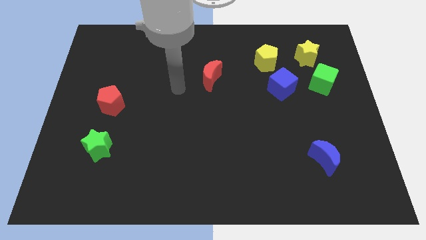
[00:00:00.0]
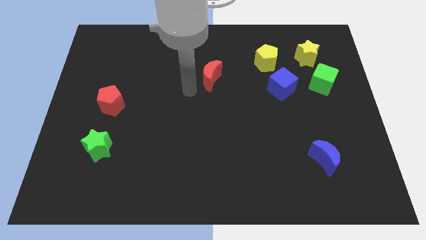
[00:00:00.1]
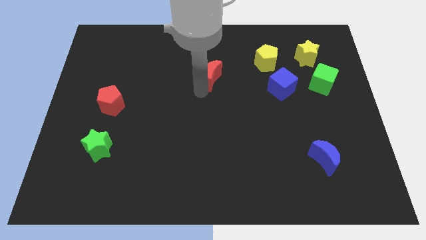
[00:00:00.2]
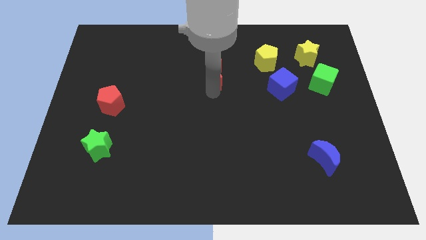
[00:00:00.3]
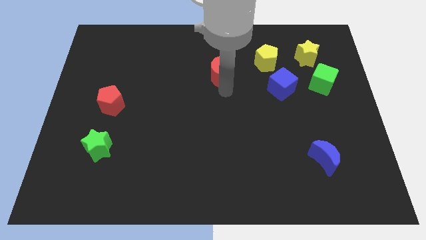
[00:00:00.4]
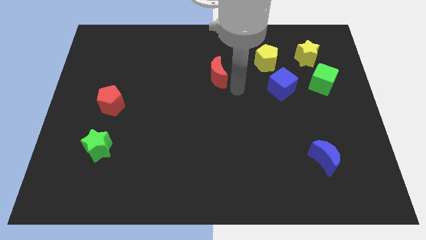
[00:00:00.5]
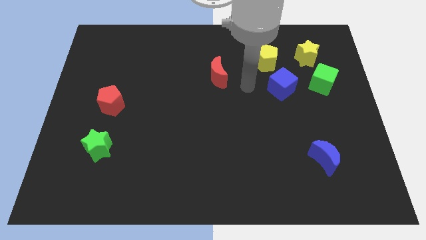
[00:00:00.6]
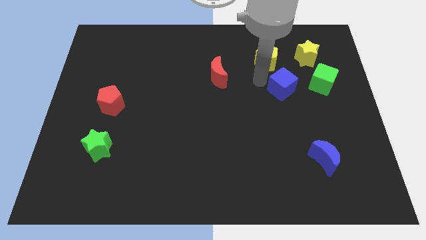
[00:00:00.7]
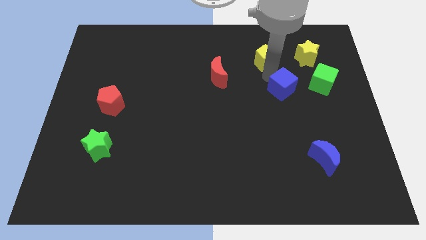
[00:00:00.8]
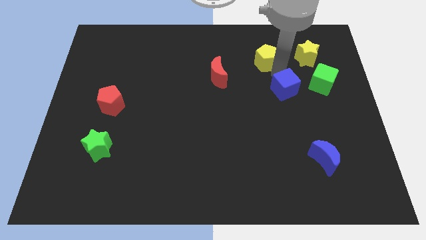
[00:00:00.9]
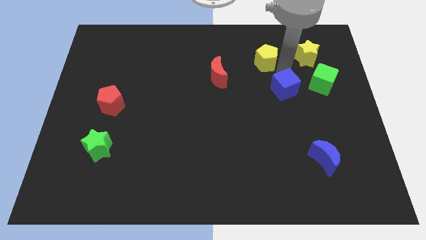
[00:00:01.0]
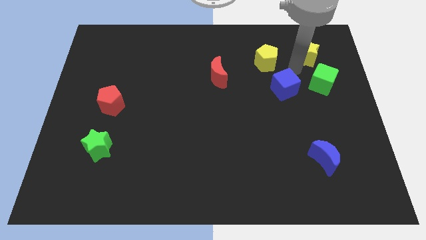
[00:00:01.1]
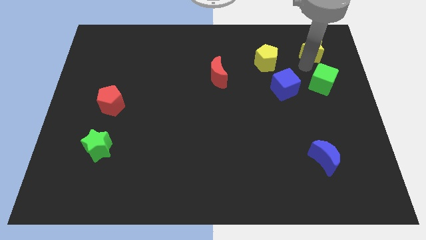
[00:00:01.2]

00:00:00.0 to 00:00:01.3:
move the green cube away from the yellow star

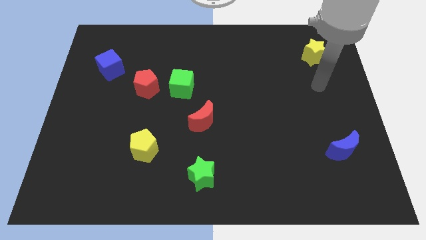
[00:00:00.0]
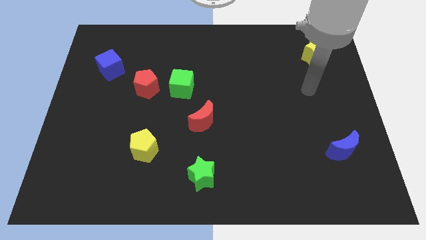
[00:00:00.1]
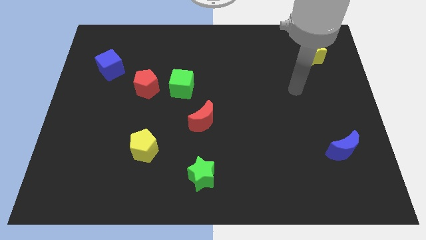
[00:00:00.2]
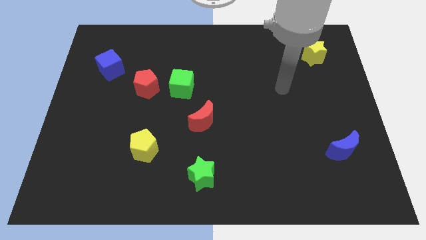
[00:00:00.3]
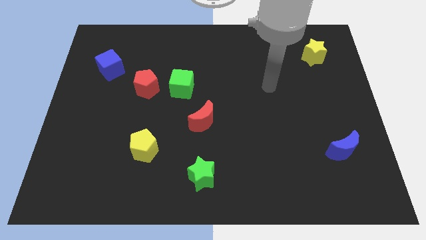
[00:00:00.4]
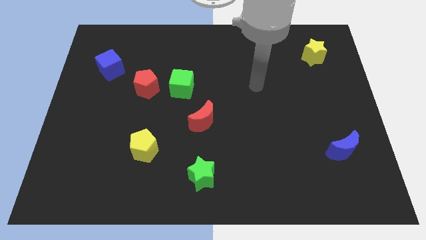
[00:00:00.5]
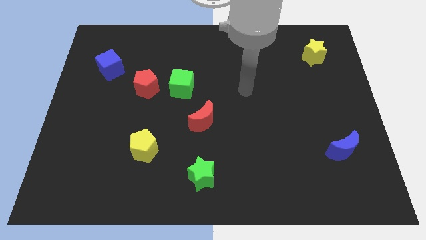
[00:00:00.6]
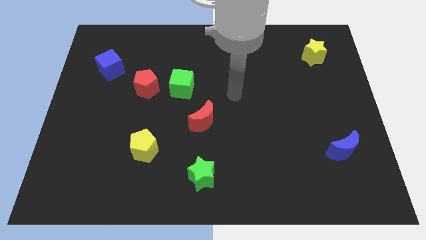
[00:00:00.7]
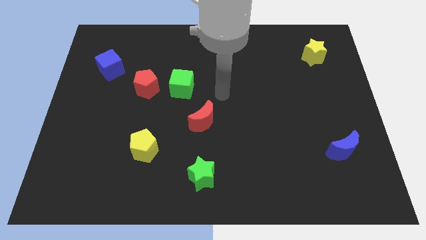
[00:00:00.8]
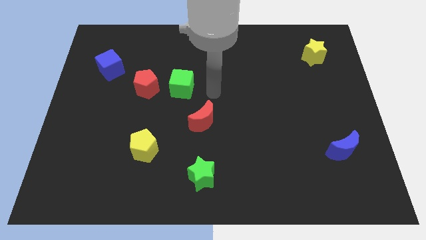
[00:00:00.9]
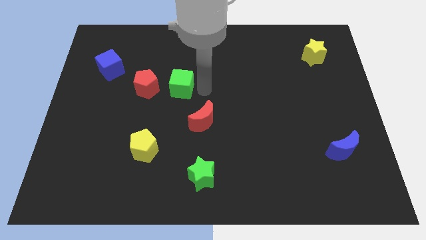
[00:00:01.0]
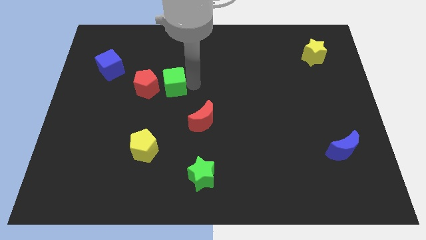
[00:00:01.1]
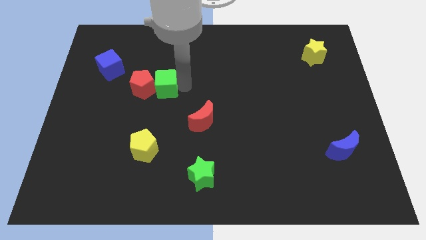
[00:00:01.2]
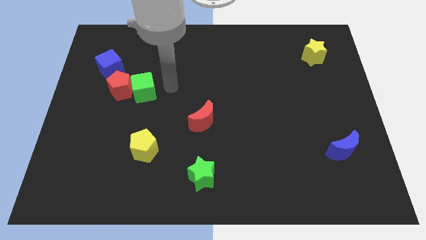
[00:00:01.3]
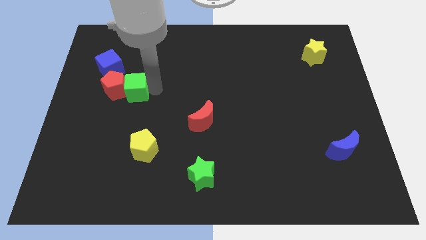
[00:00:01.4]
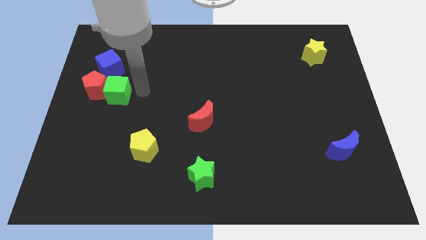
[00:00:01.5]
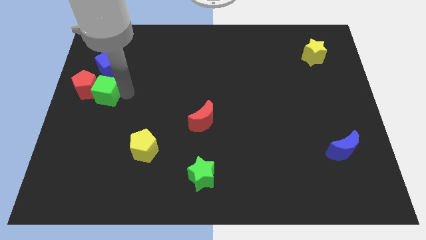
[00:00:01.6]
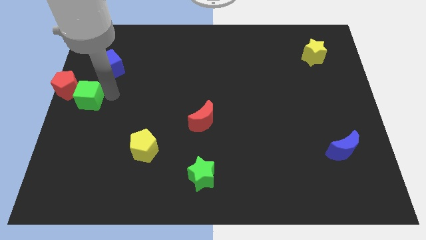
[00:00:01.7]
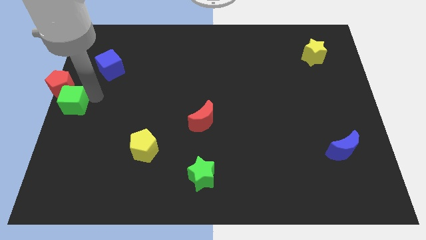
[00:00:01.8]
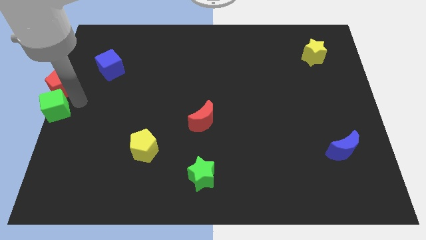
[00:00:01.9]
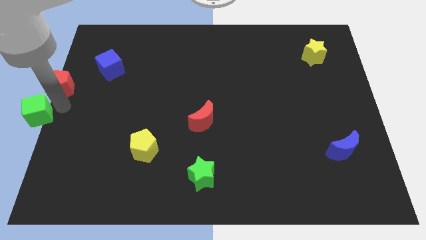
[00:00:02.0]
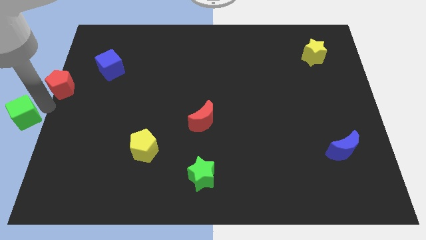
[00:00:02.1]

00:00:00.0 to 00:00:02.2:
move the red pentagon away from the green cube

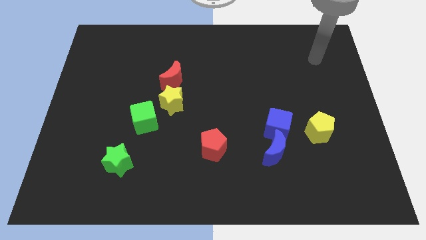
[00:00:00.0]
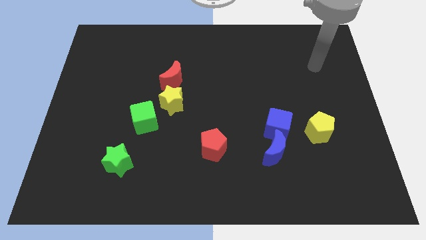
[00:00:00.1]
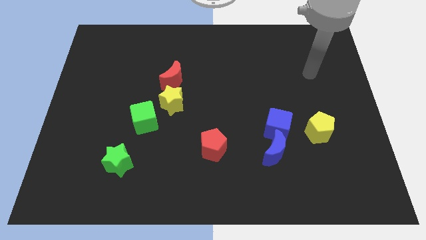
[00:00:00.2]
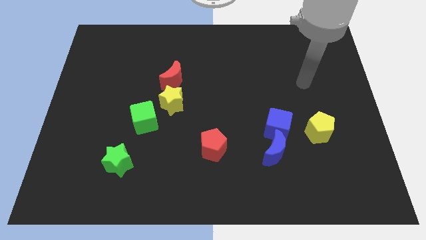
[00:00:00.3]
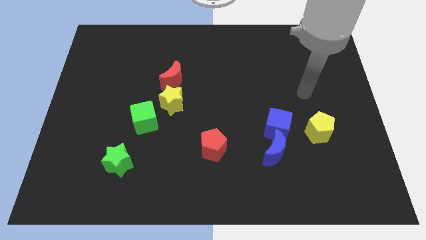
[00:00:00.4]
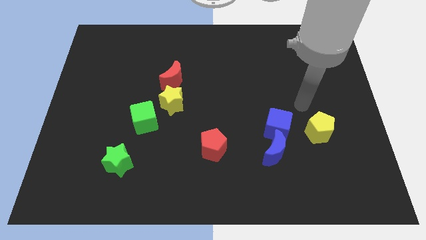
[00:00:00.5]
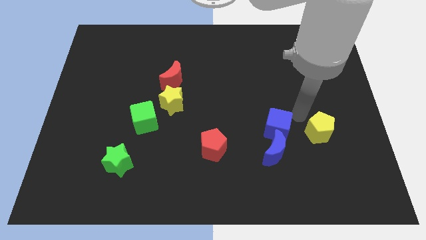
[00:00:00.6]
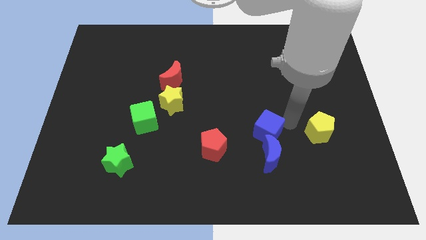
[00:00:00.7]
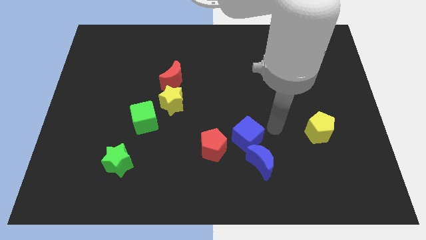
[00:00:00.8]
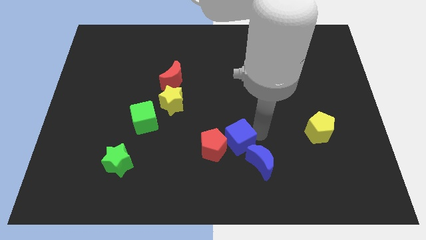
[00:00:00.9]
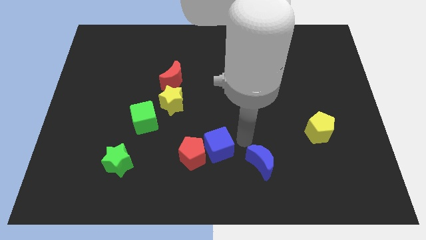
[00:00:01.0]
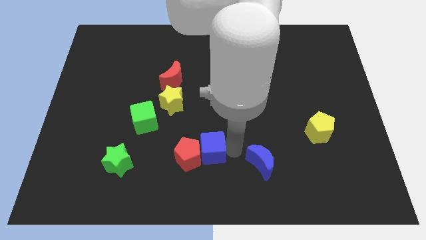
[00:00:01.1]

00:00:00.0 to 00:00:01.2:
move the blue moon away from the blue cube

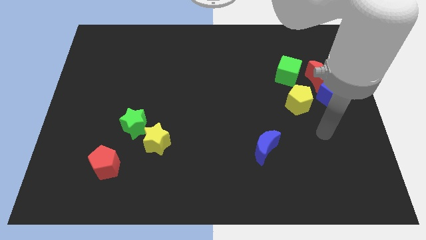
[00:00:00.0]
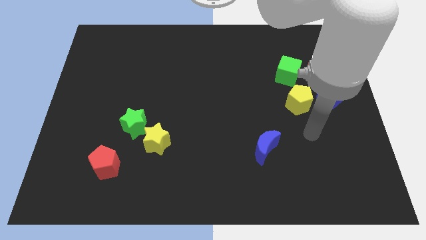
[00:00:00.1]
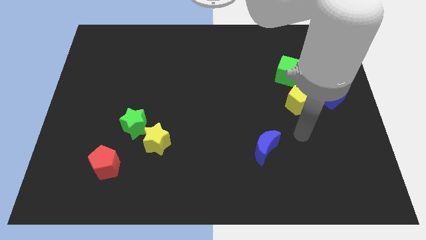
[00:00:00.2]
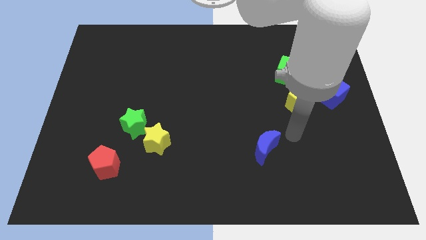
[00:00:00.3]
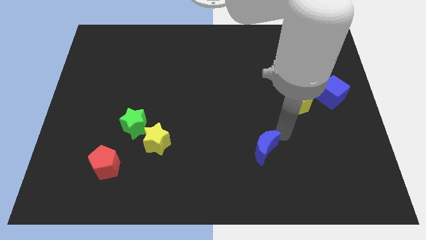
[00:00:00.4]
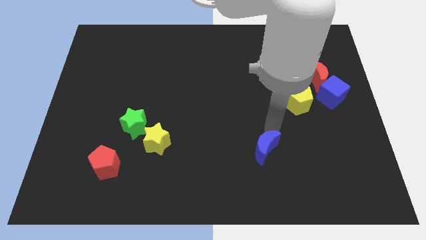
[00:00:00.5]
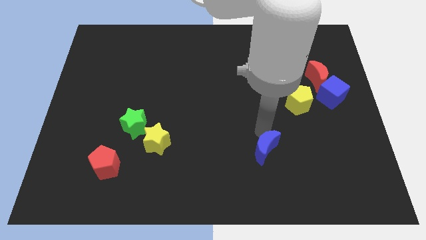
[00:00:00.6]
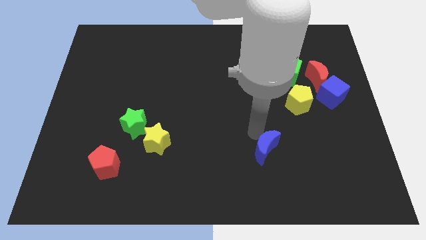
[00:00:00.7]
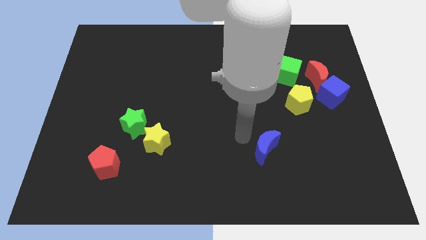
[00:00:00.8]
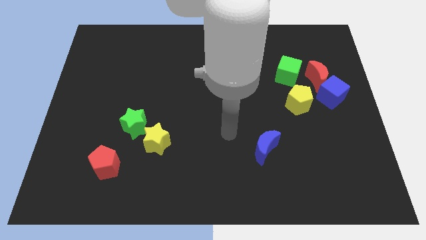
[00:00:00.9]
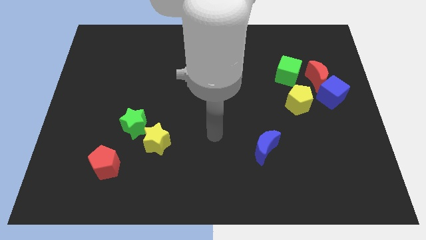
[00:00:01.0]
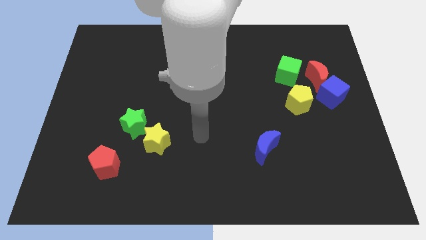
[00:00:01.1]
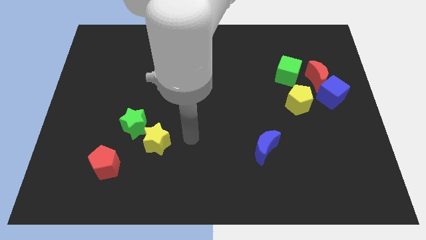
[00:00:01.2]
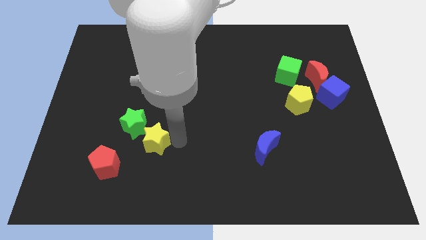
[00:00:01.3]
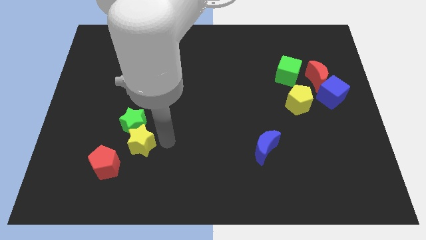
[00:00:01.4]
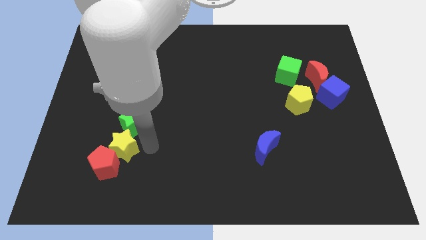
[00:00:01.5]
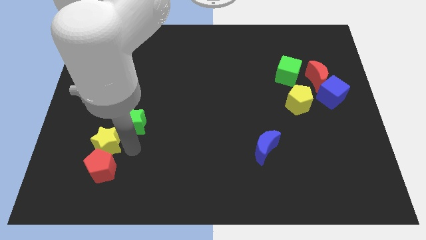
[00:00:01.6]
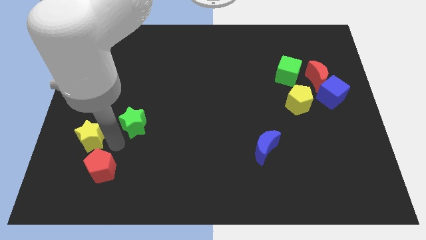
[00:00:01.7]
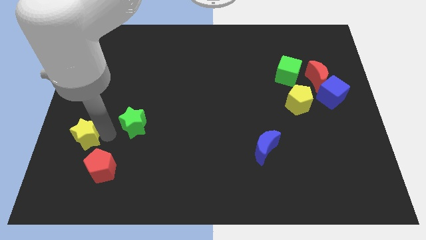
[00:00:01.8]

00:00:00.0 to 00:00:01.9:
pull the green star apart from the yellow star

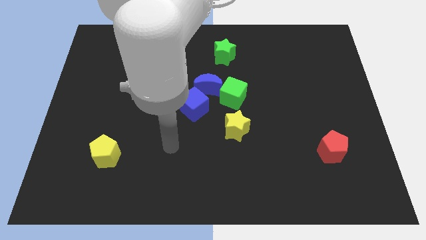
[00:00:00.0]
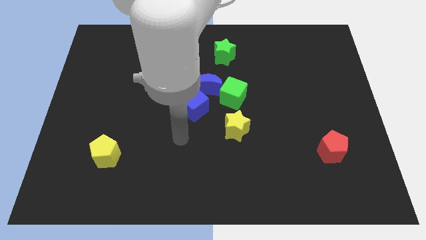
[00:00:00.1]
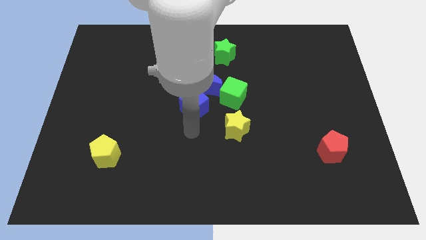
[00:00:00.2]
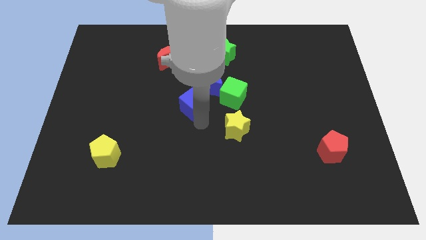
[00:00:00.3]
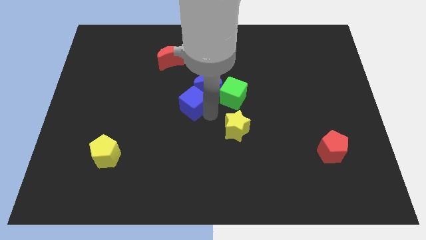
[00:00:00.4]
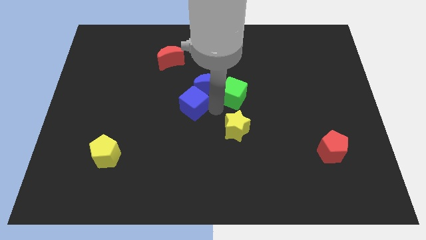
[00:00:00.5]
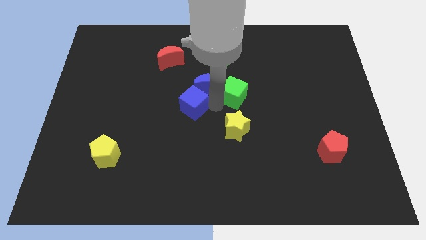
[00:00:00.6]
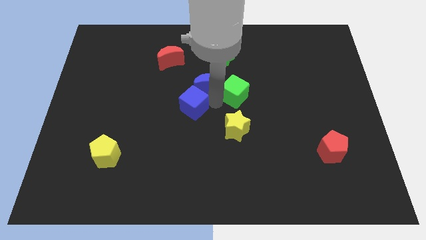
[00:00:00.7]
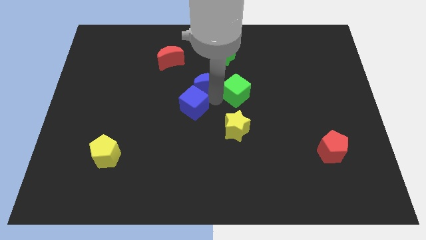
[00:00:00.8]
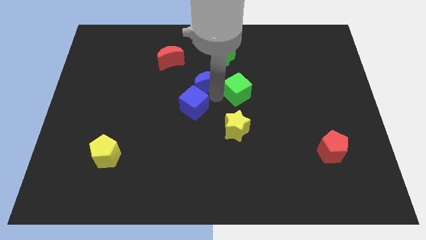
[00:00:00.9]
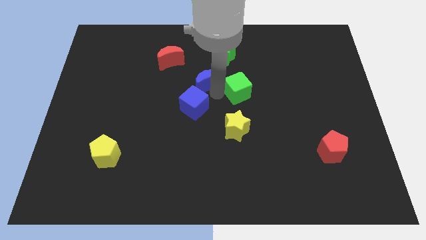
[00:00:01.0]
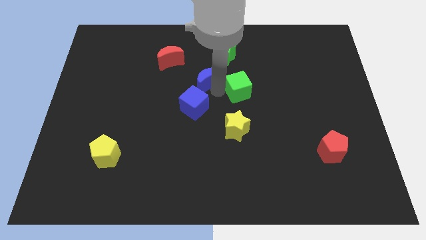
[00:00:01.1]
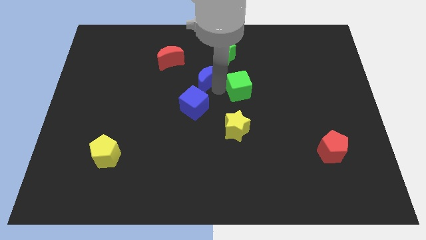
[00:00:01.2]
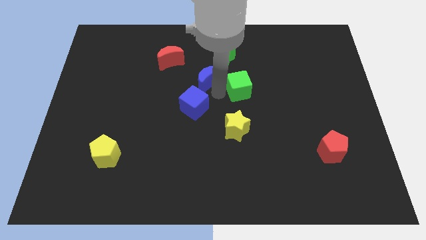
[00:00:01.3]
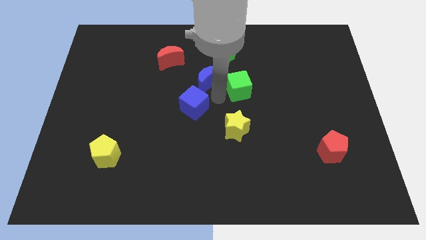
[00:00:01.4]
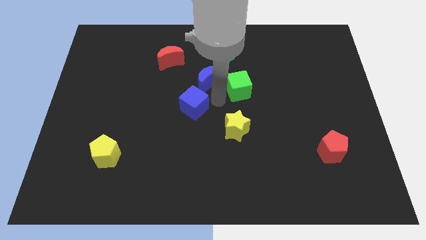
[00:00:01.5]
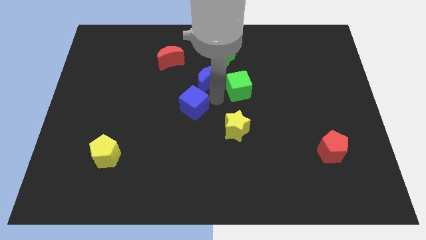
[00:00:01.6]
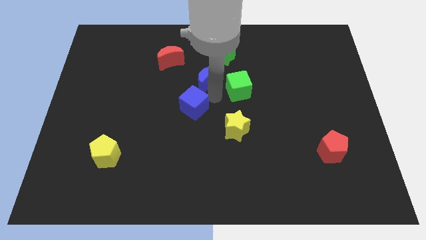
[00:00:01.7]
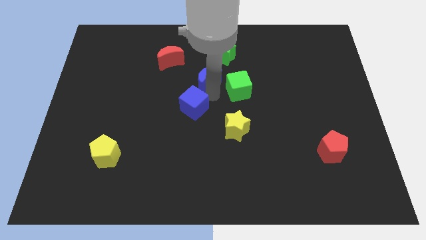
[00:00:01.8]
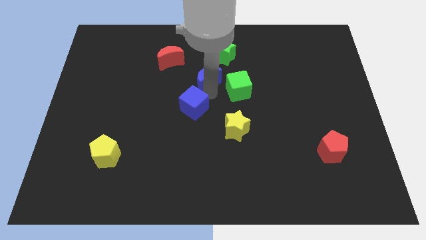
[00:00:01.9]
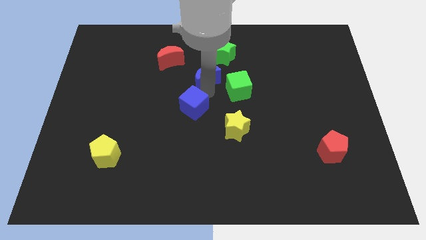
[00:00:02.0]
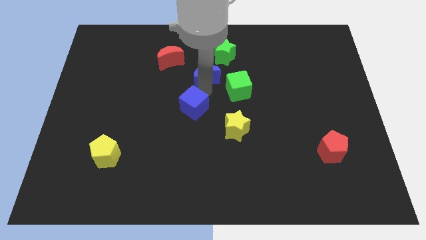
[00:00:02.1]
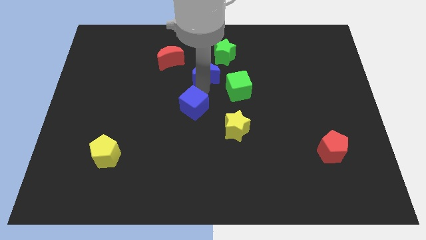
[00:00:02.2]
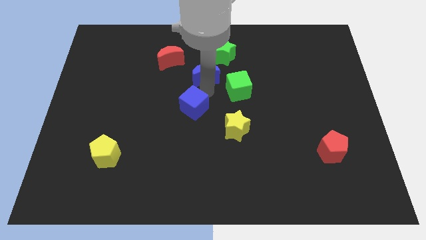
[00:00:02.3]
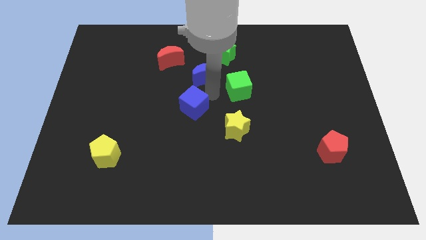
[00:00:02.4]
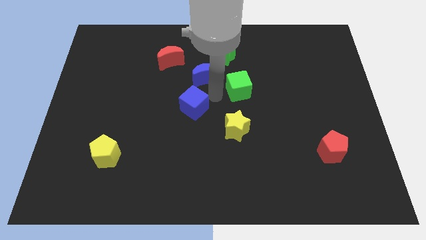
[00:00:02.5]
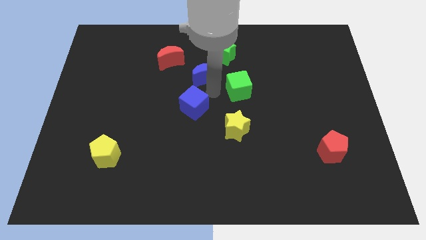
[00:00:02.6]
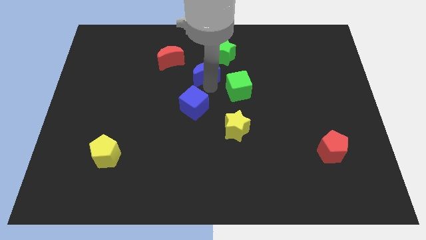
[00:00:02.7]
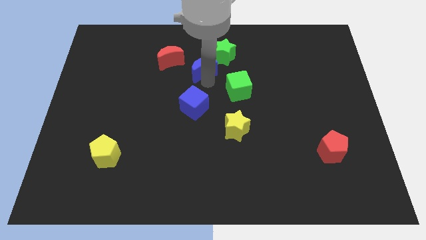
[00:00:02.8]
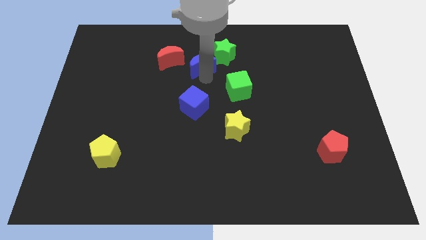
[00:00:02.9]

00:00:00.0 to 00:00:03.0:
separate the blue moon from the green cube and blue cube
